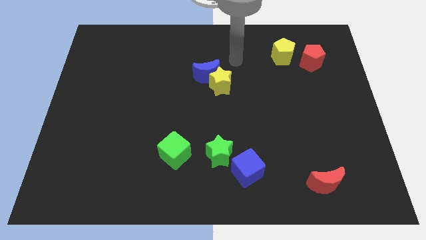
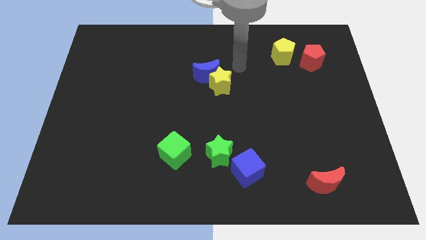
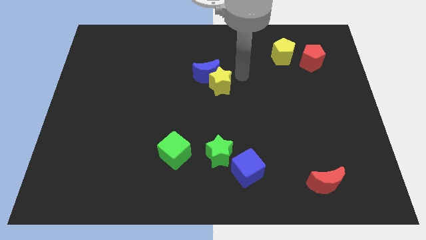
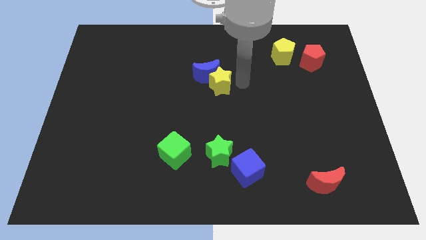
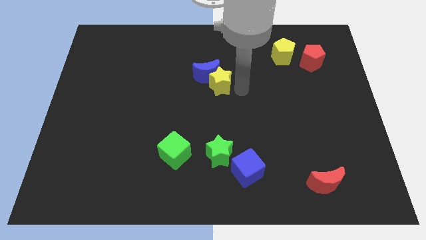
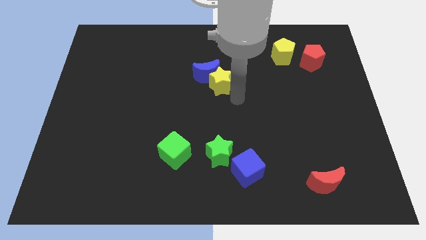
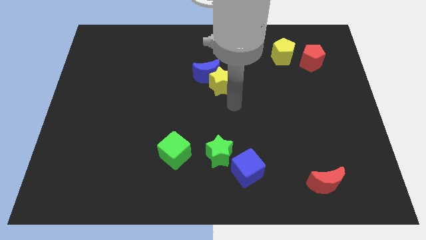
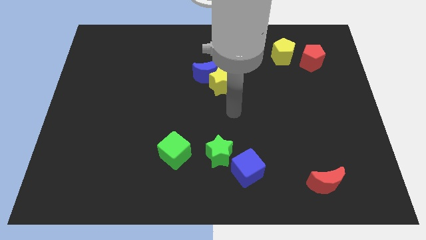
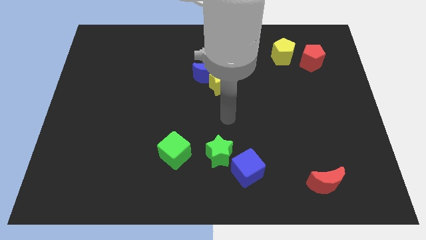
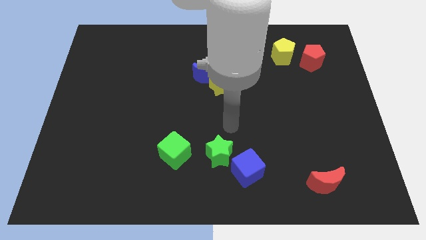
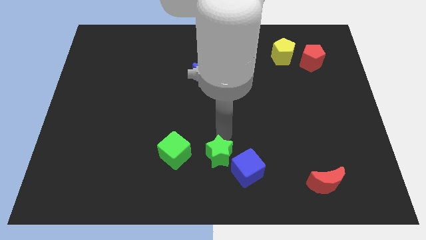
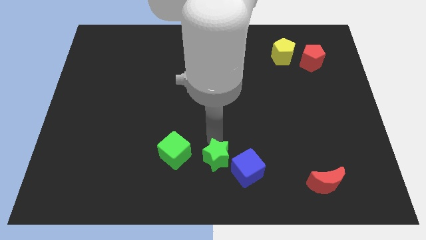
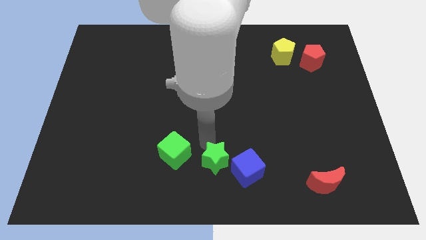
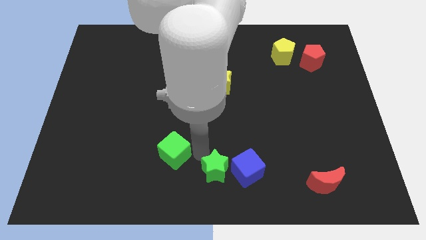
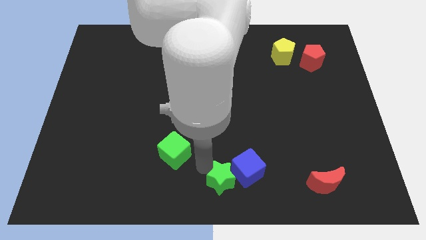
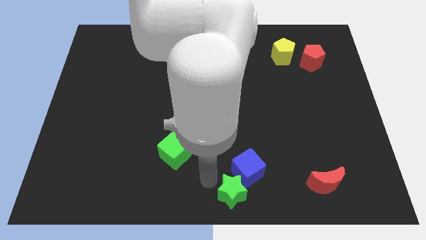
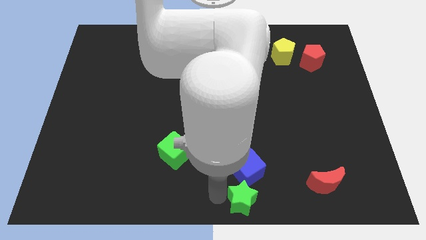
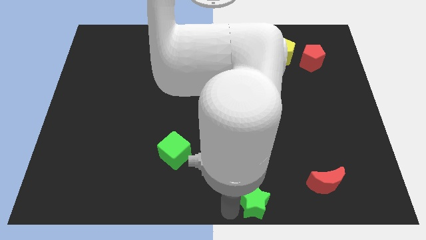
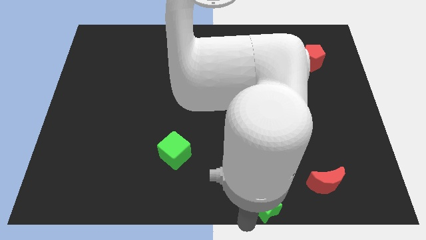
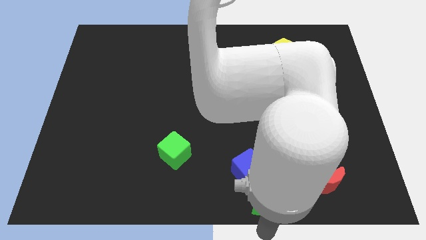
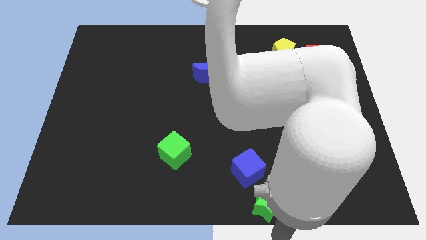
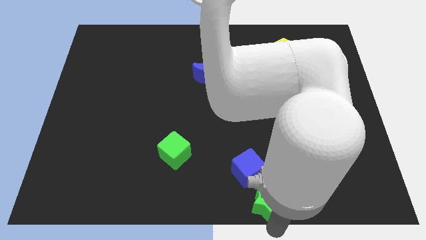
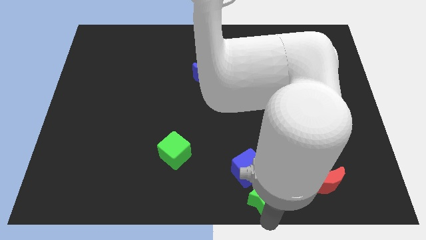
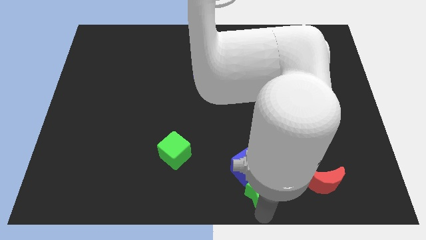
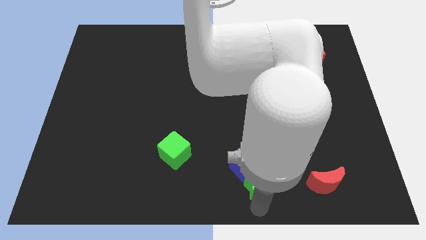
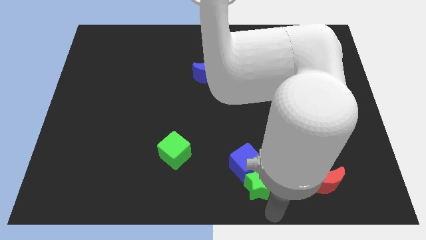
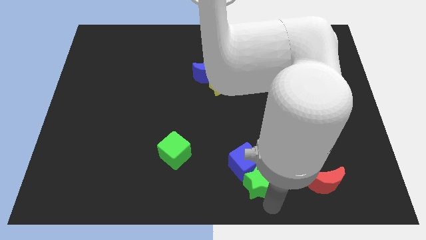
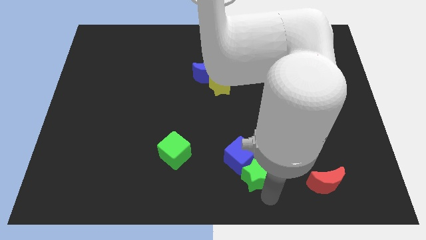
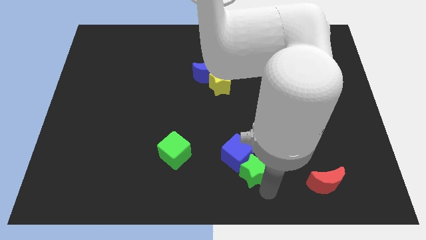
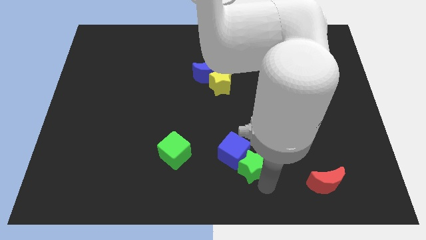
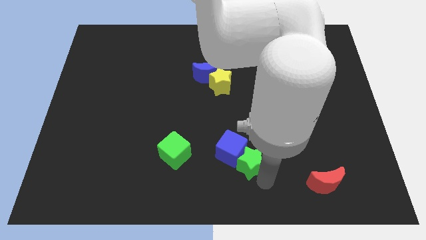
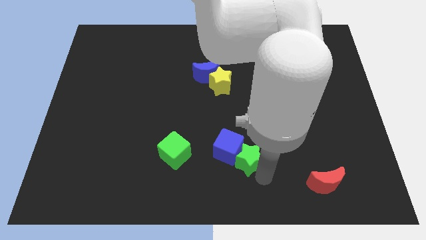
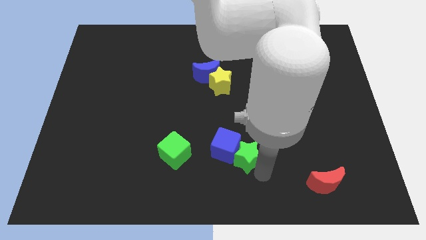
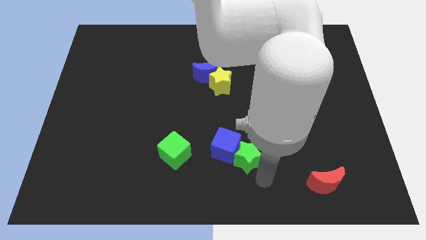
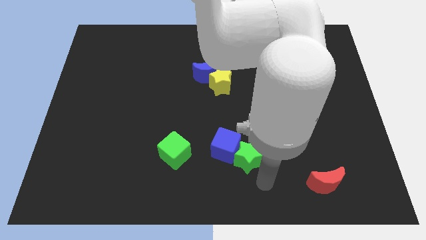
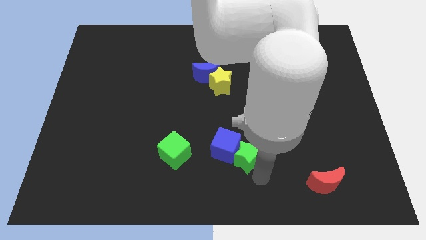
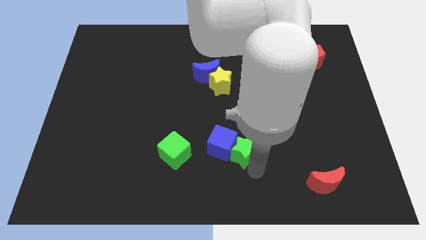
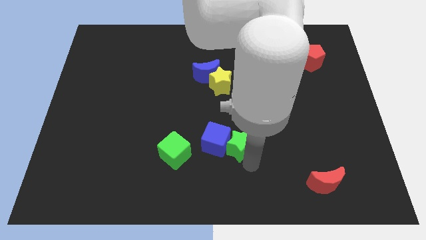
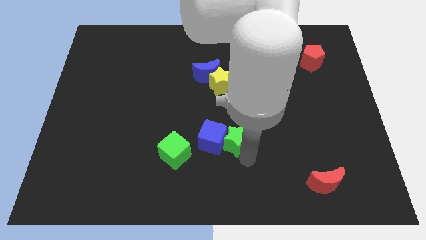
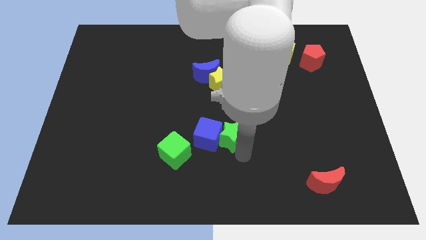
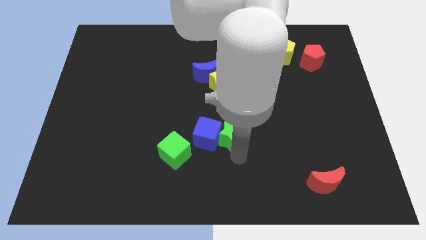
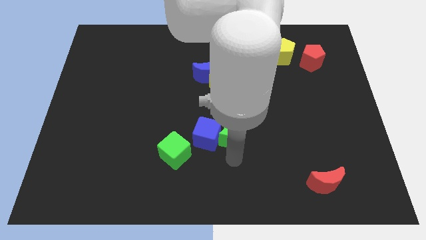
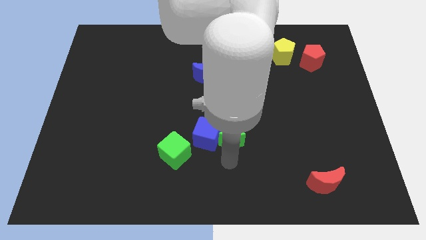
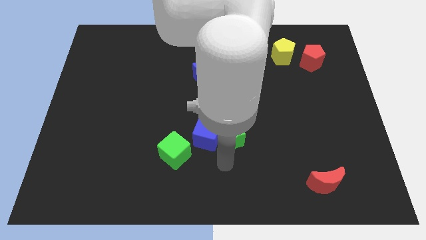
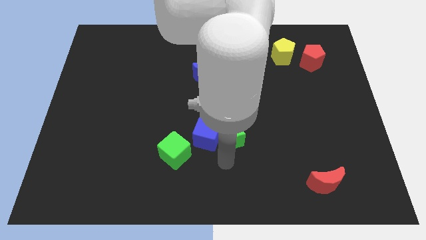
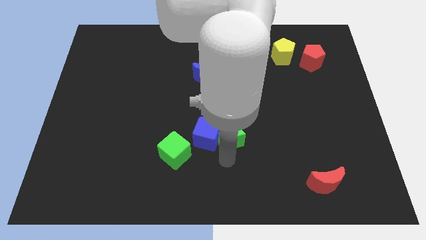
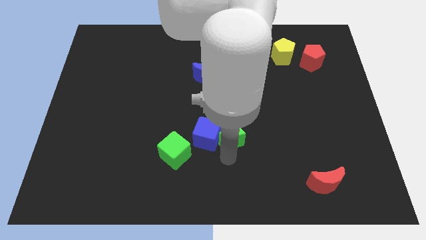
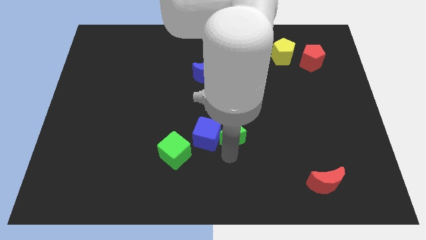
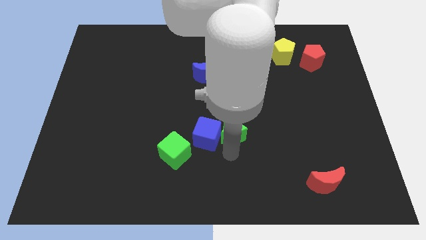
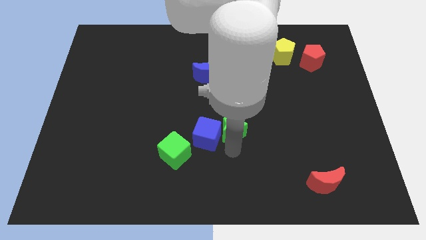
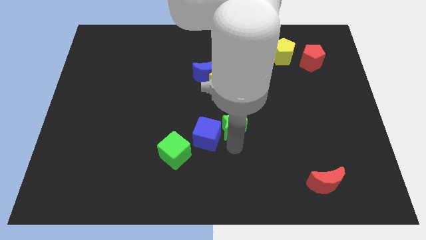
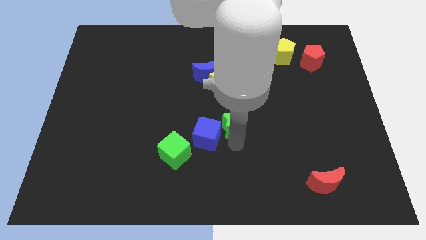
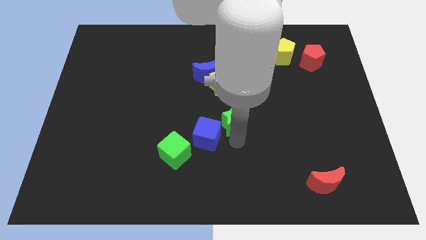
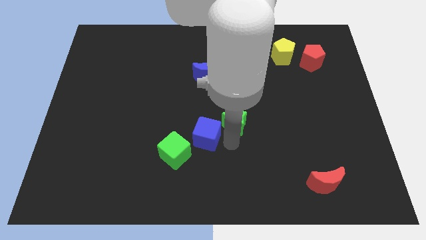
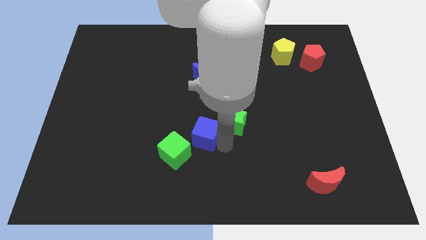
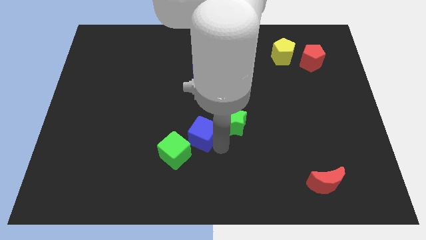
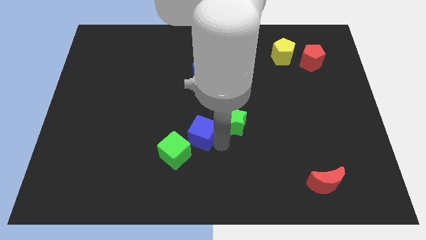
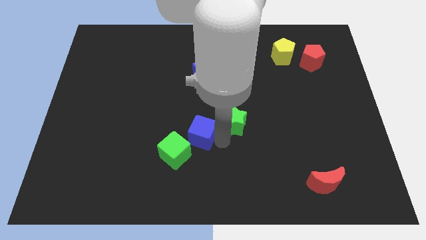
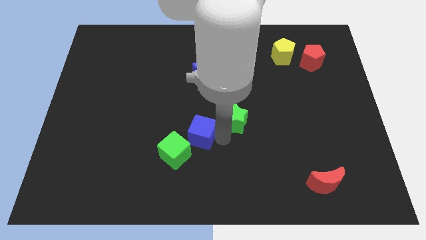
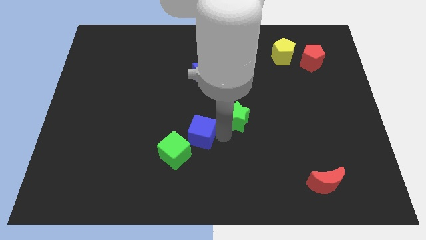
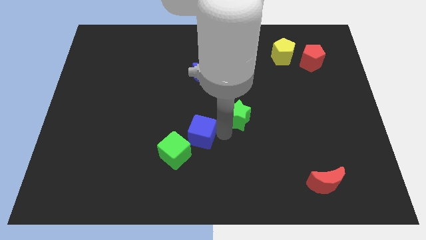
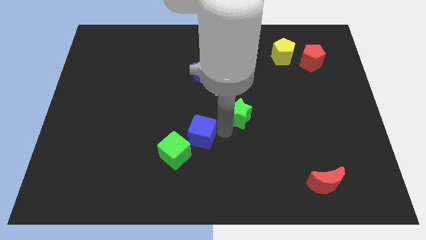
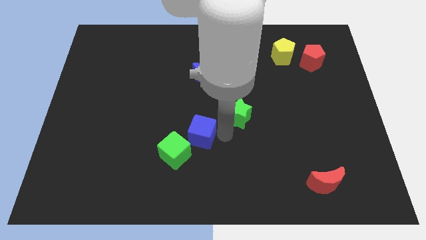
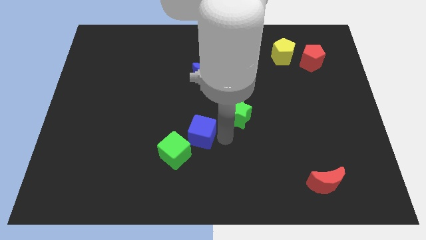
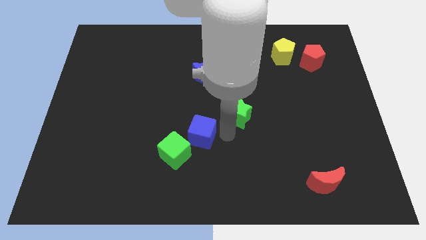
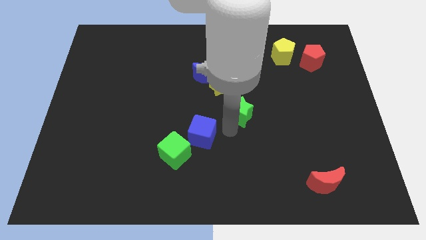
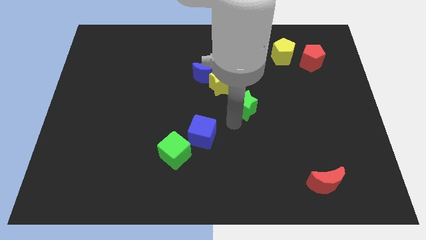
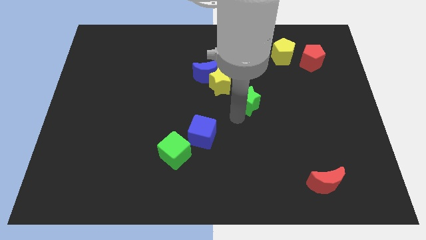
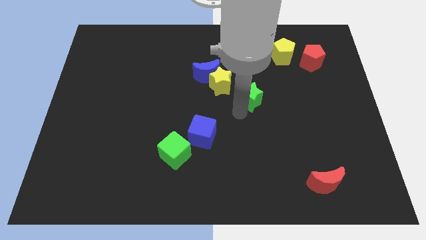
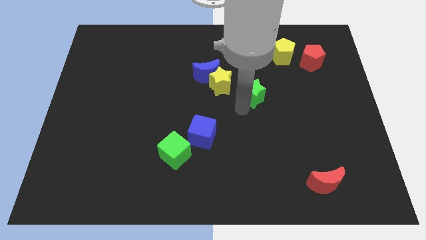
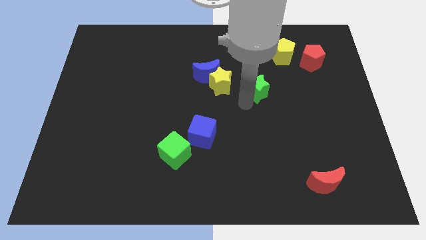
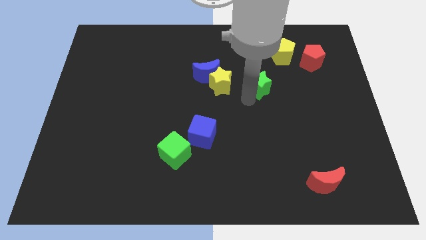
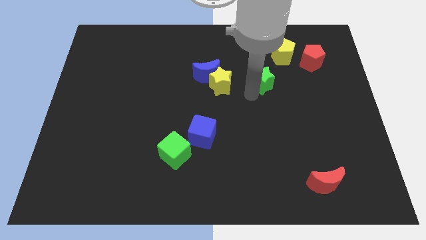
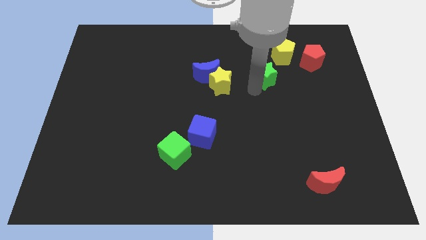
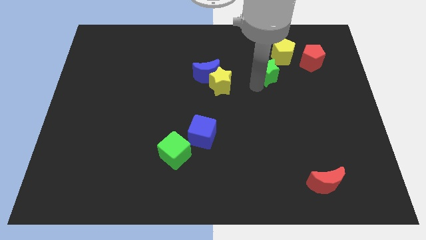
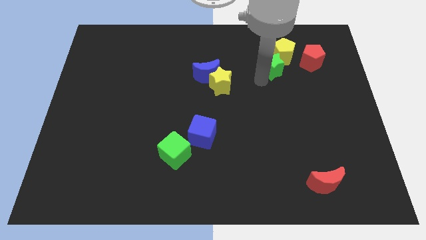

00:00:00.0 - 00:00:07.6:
move the green star next to the yellow pentagon
